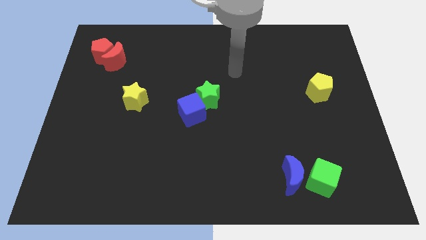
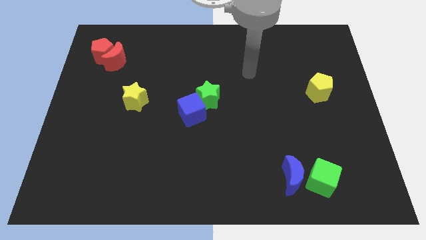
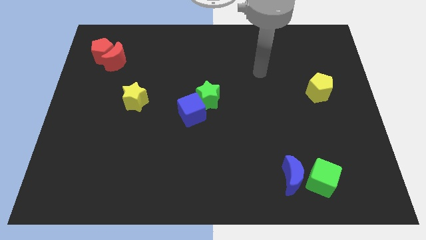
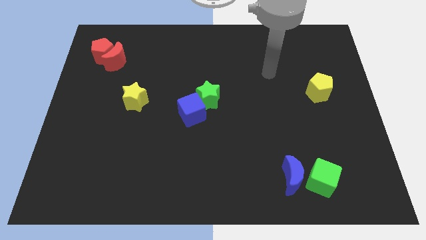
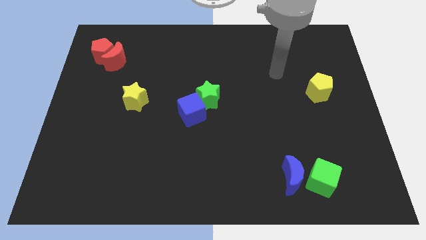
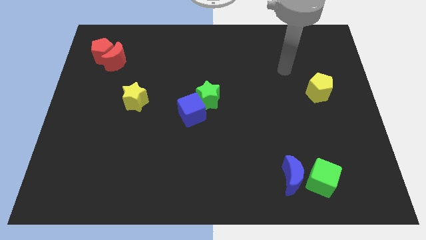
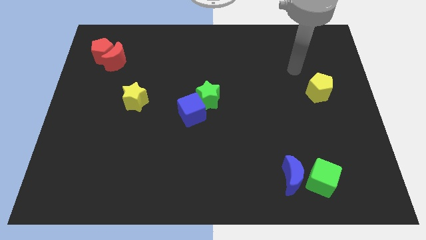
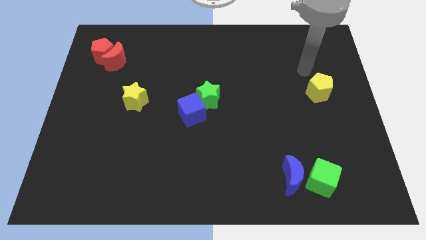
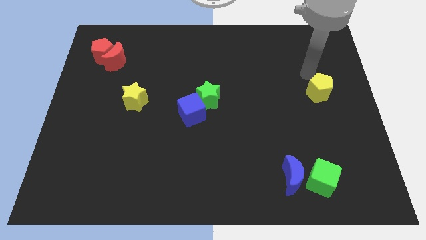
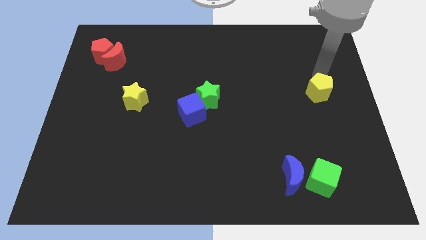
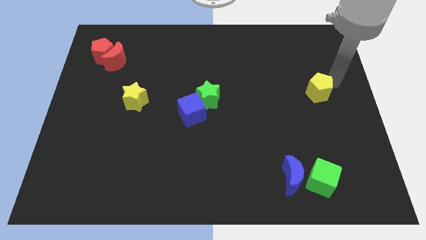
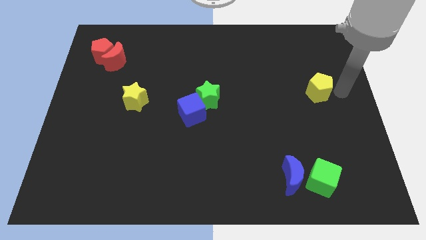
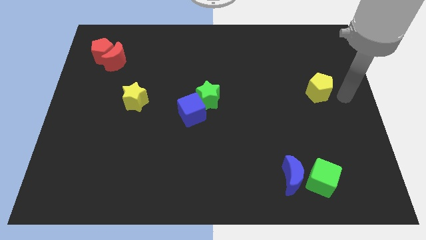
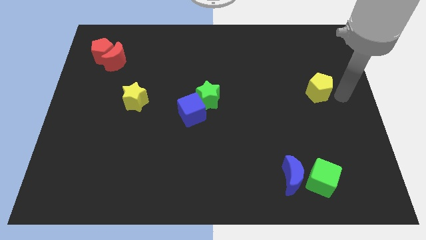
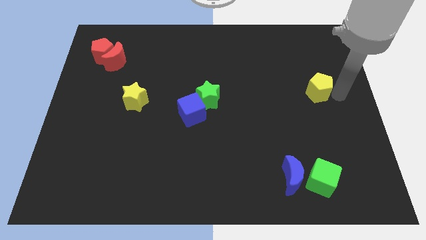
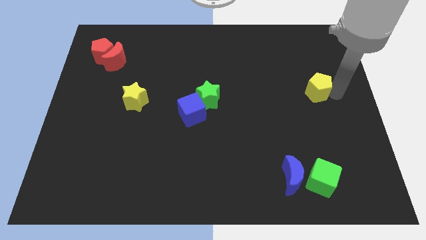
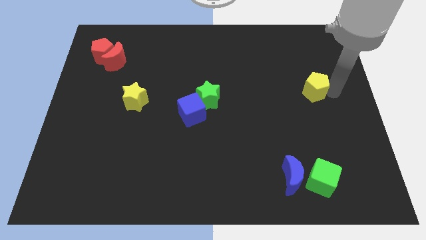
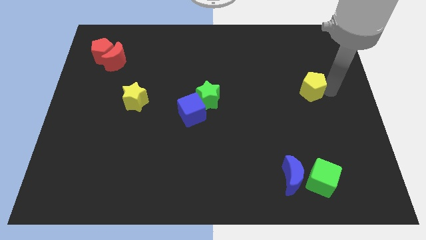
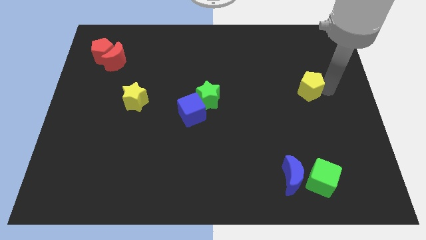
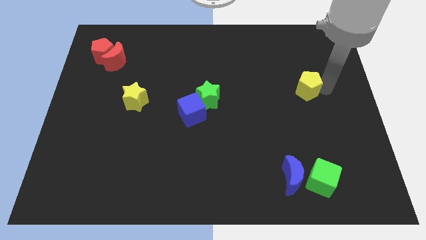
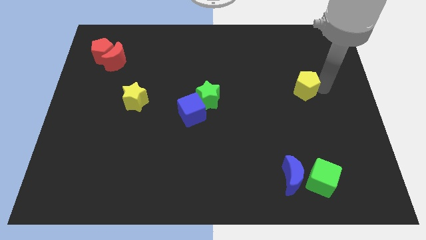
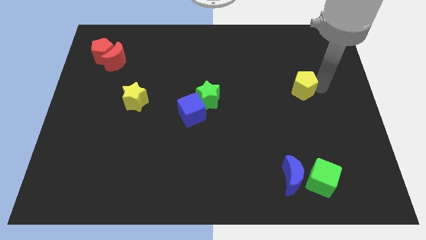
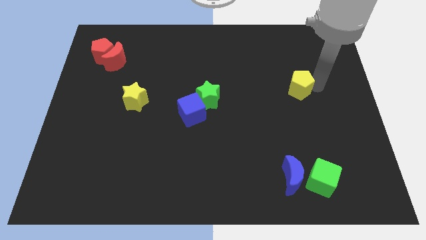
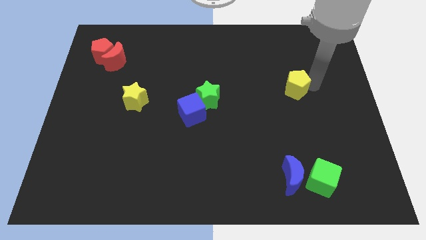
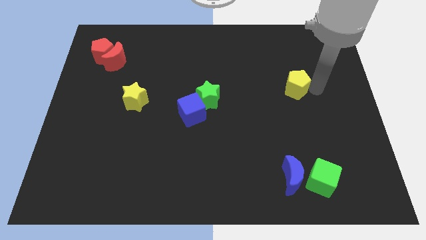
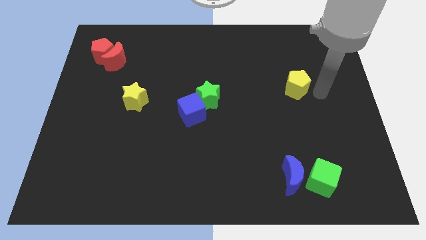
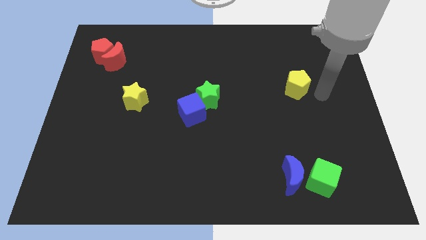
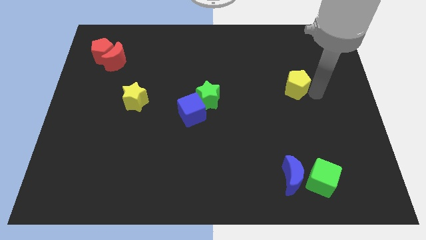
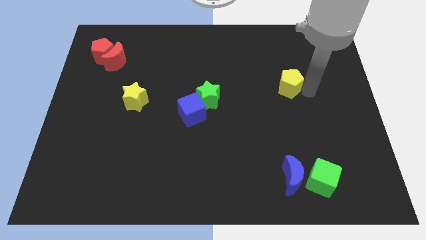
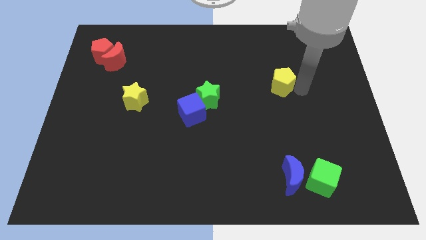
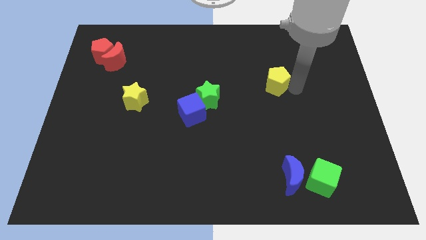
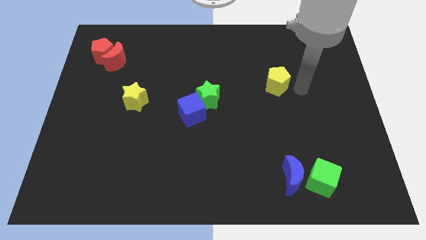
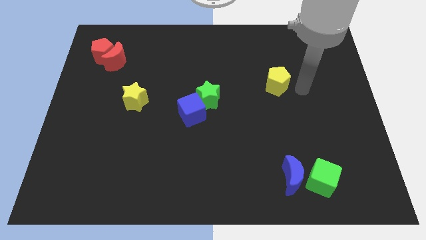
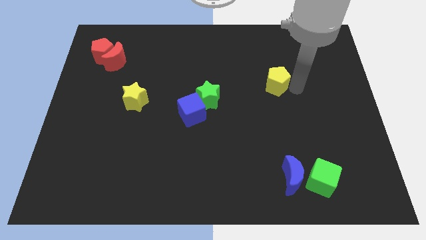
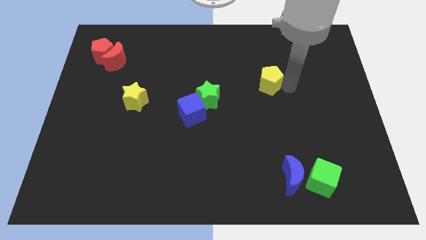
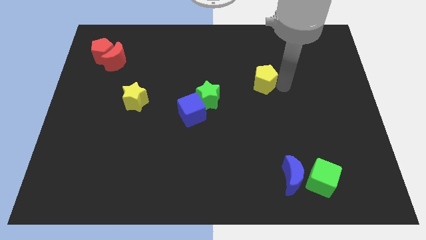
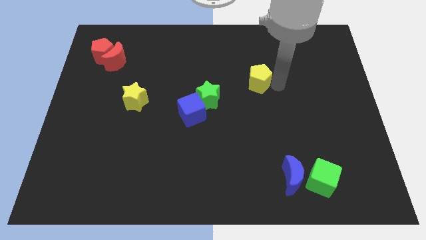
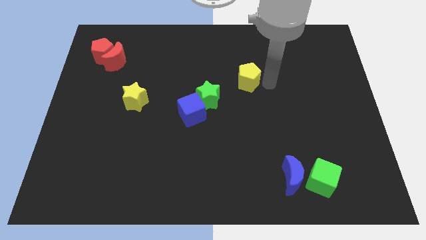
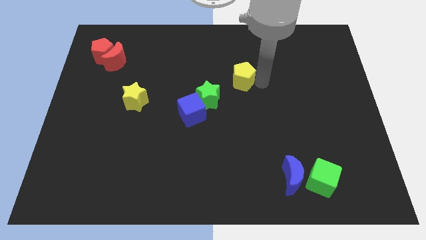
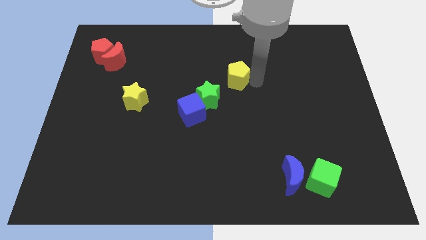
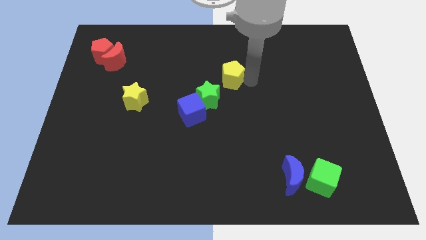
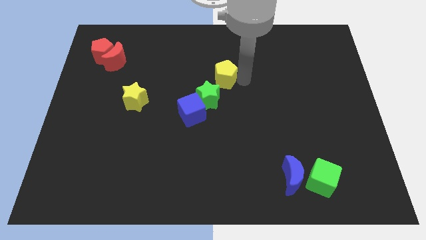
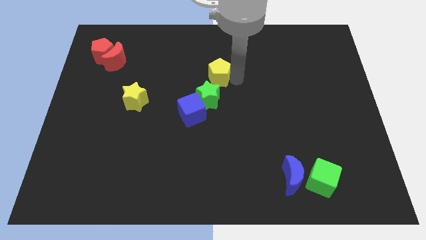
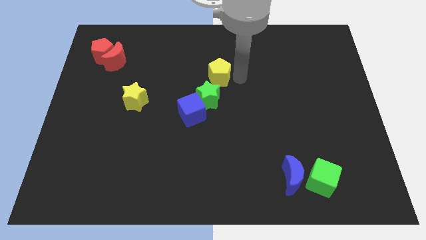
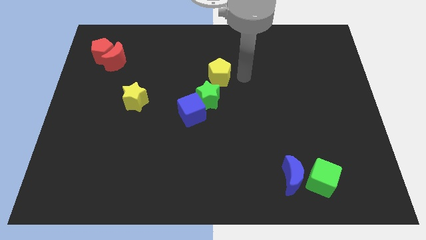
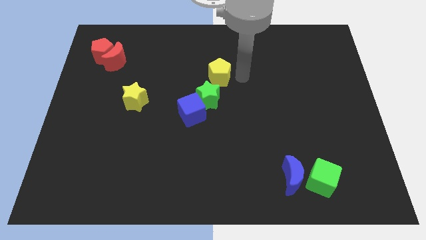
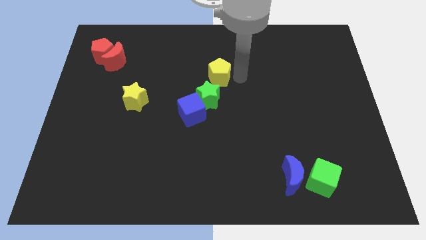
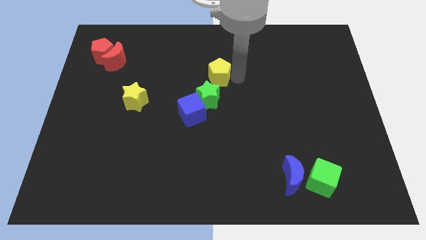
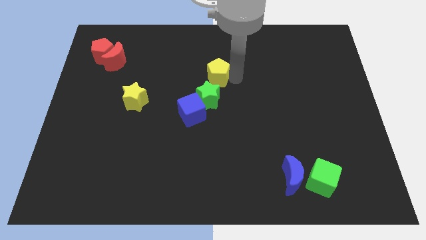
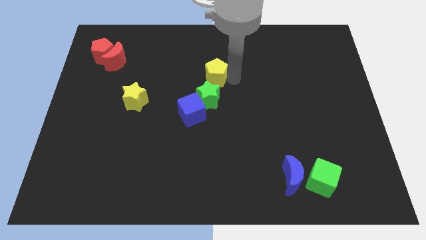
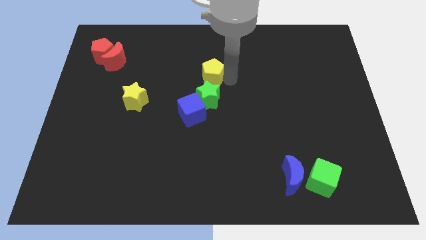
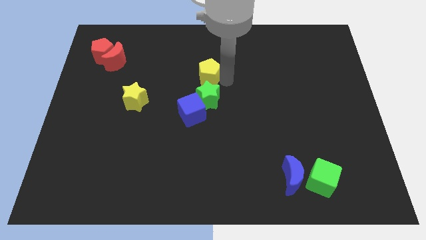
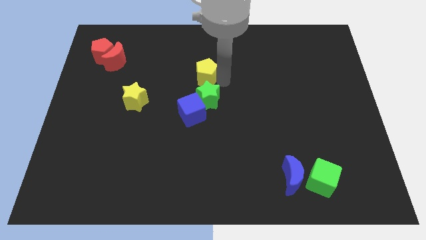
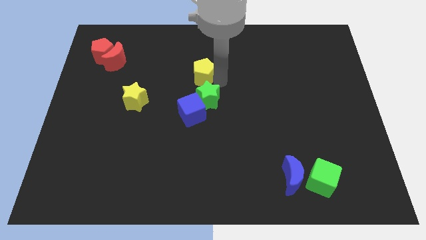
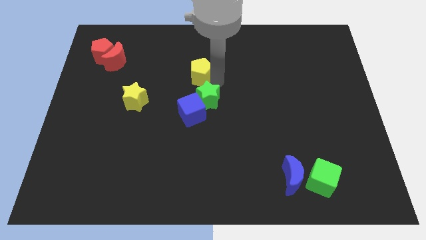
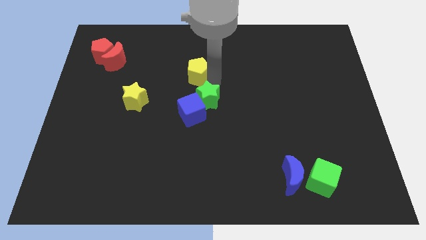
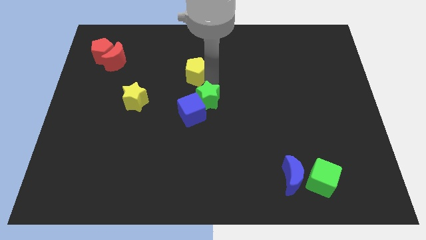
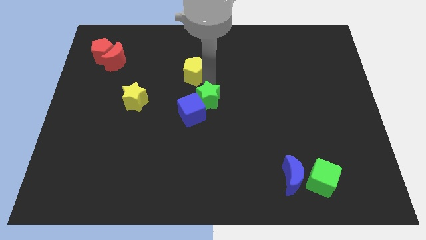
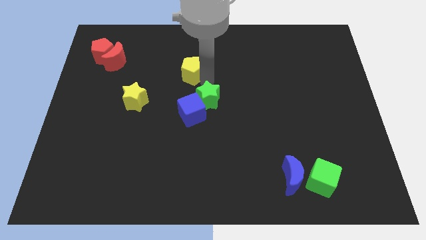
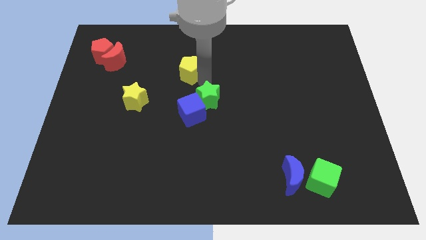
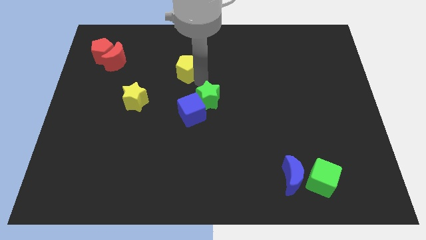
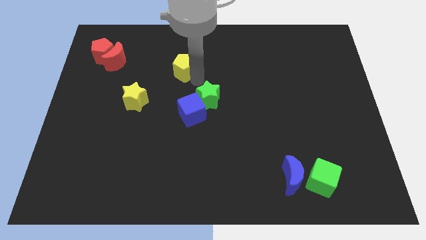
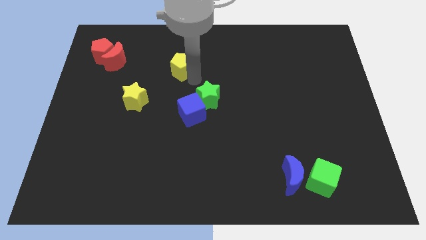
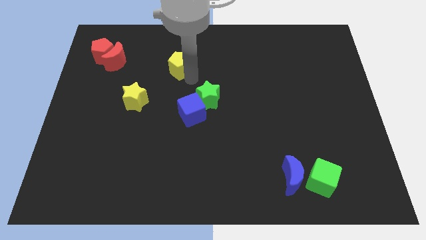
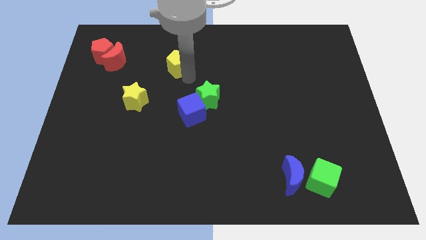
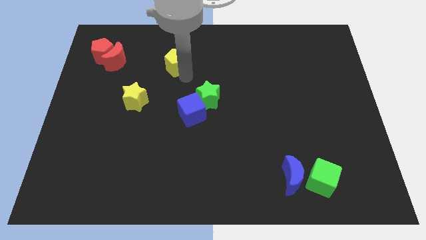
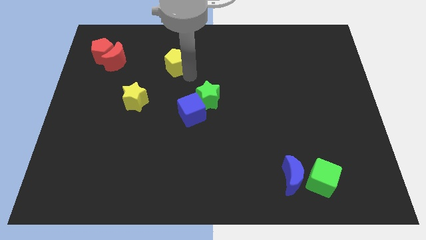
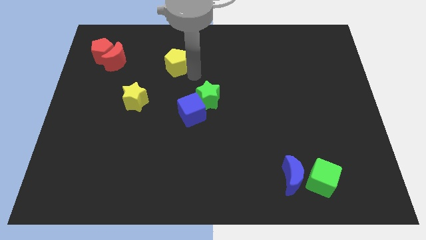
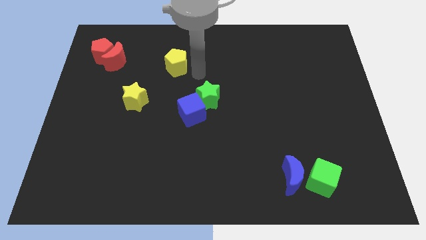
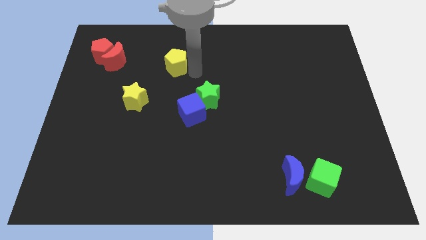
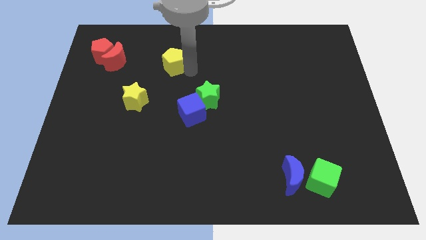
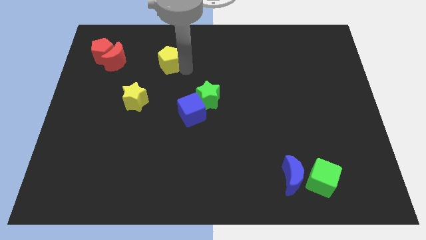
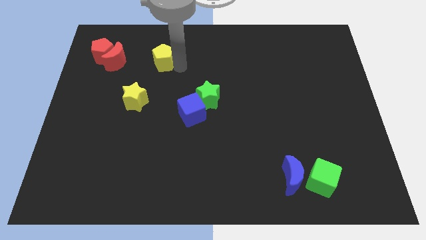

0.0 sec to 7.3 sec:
move the yellow pentagon to the right side of the red pentagon

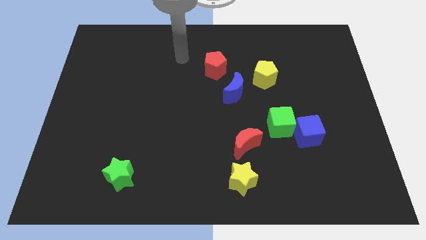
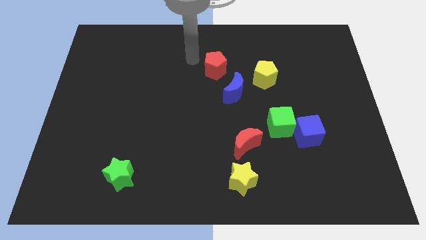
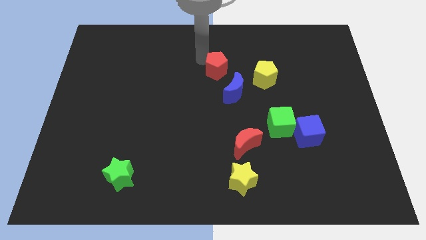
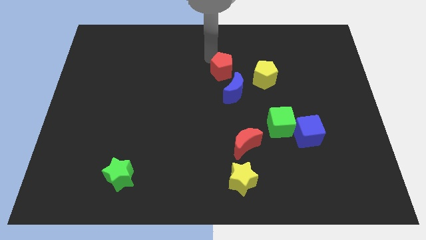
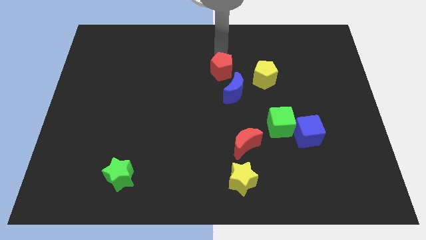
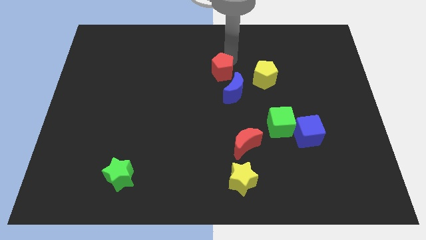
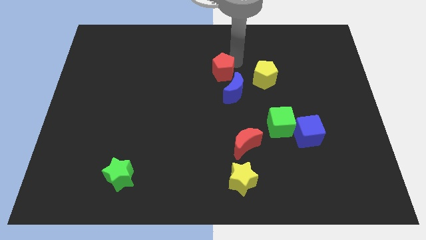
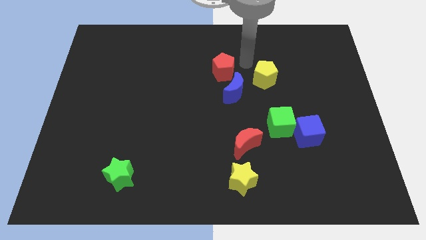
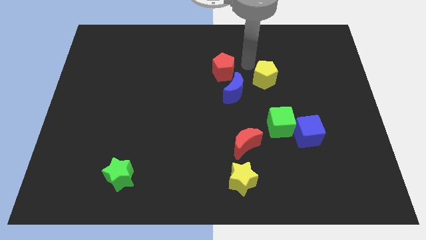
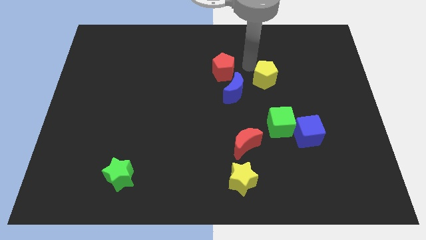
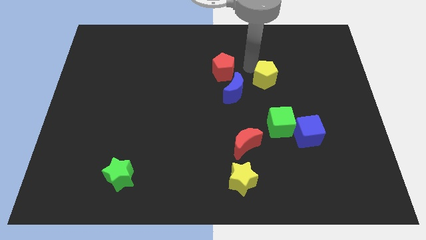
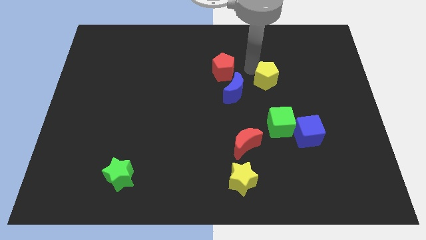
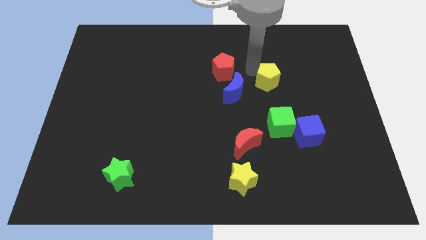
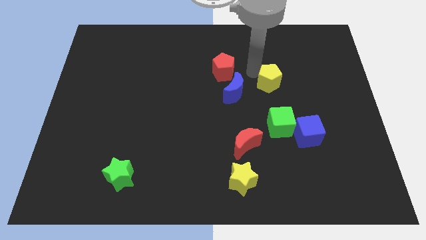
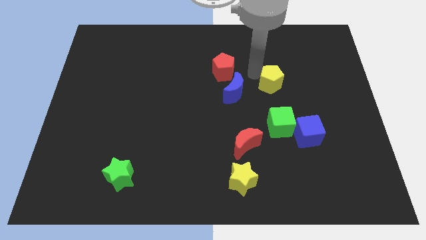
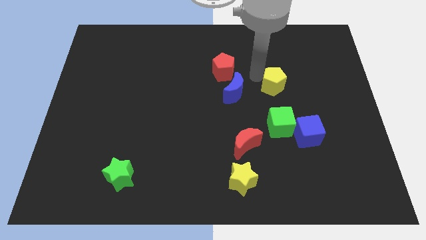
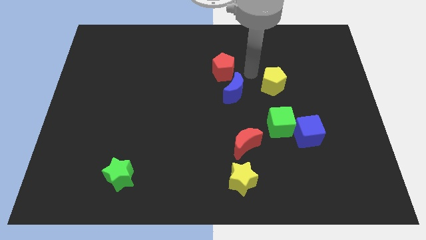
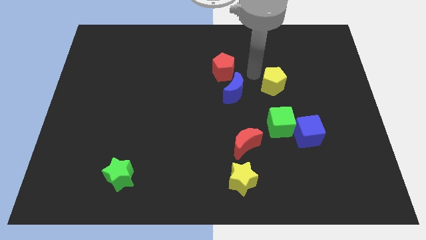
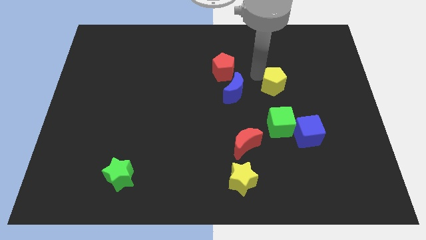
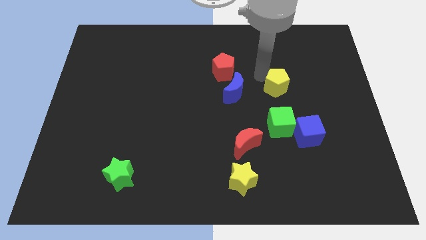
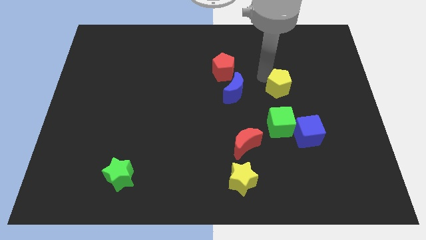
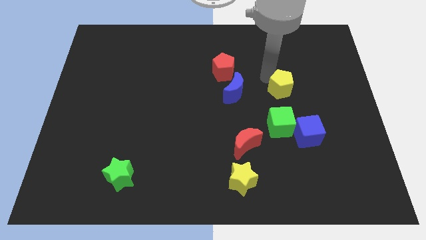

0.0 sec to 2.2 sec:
push the yellow pentagon to the top side of the blue cube
